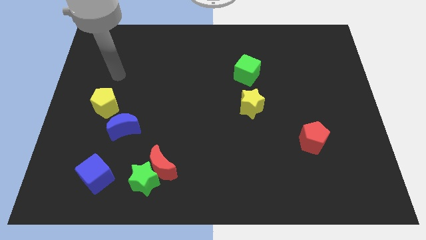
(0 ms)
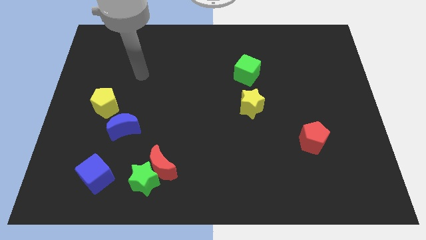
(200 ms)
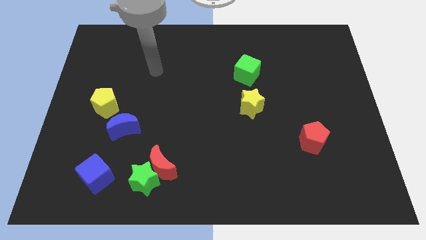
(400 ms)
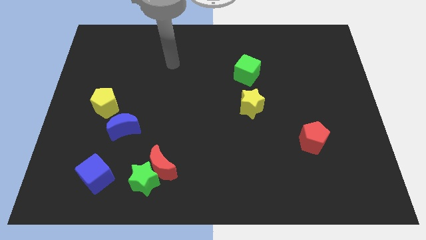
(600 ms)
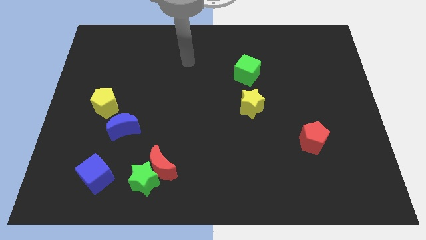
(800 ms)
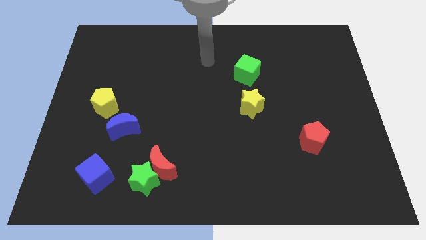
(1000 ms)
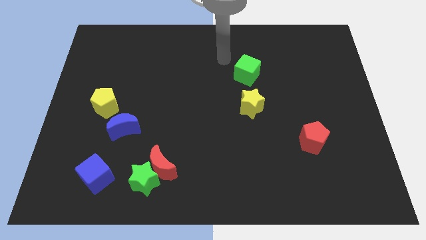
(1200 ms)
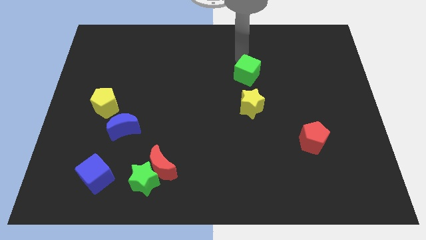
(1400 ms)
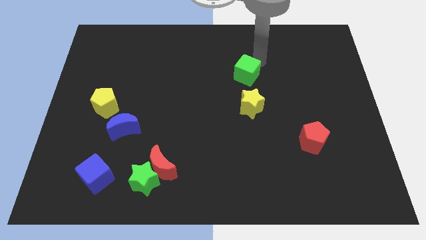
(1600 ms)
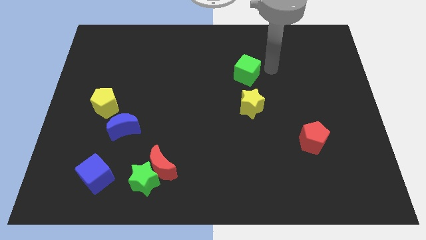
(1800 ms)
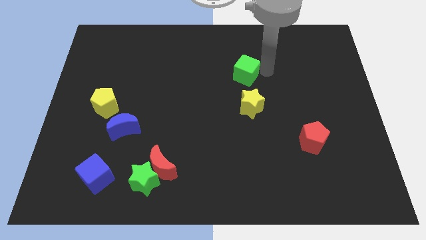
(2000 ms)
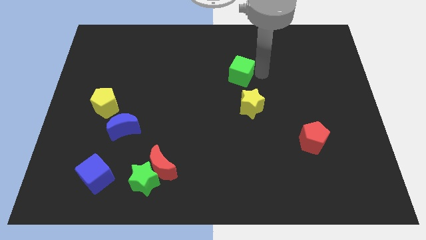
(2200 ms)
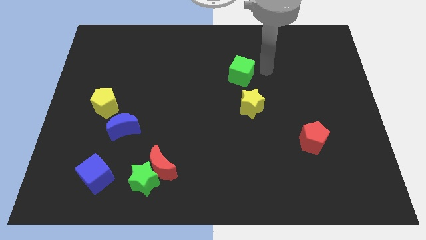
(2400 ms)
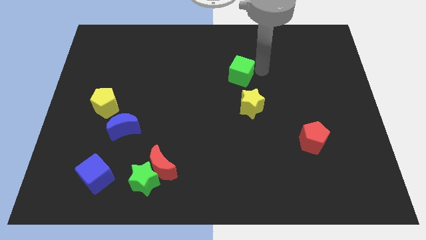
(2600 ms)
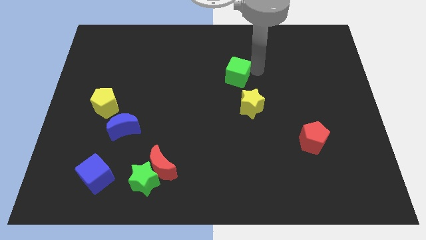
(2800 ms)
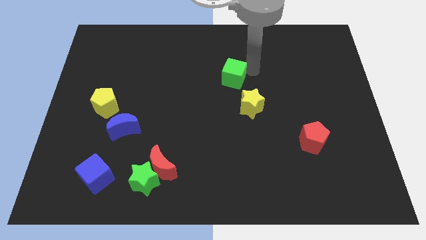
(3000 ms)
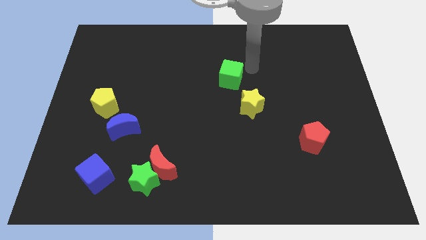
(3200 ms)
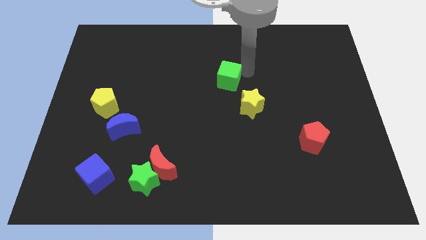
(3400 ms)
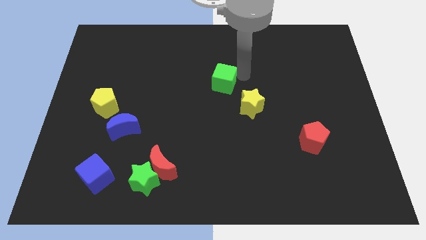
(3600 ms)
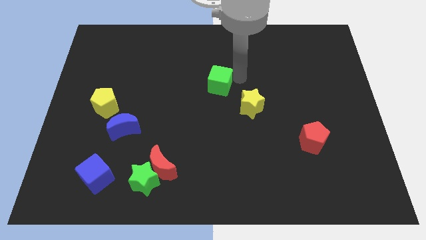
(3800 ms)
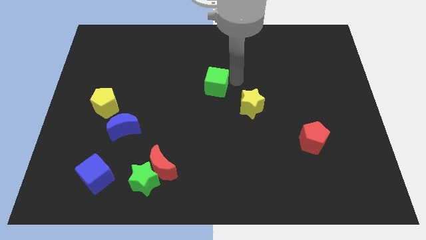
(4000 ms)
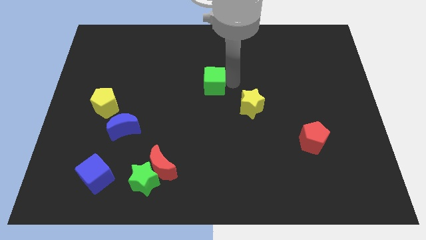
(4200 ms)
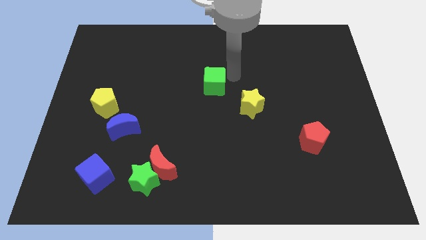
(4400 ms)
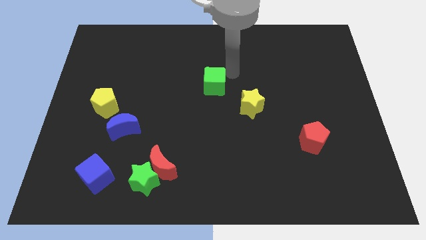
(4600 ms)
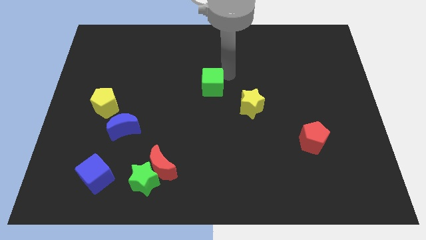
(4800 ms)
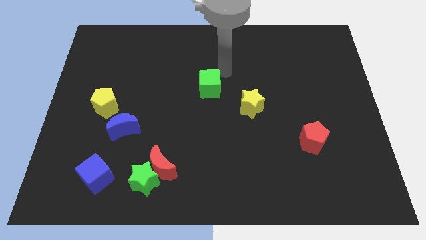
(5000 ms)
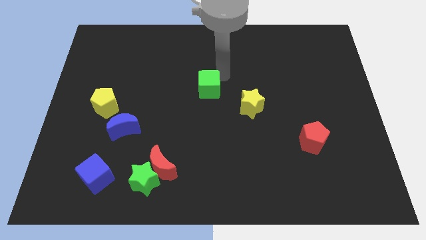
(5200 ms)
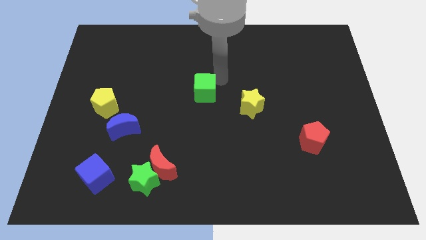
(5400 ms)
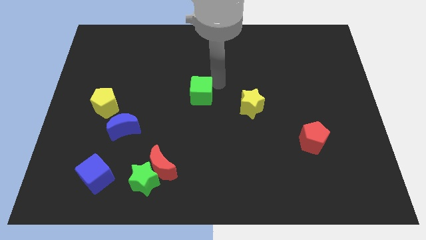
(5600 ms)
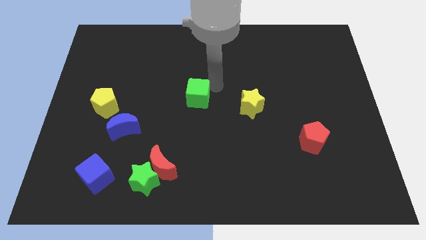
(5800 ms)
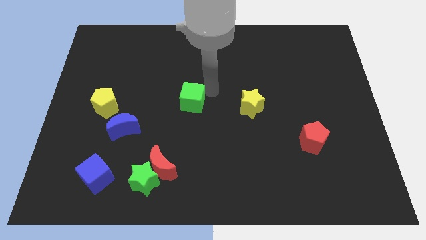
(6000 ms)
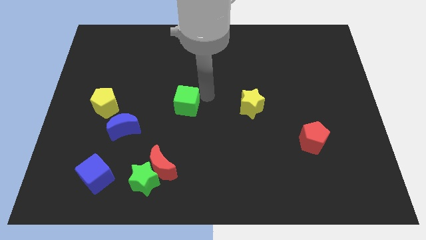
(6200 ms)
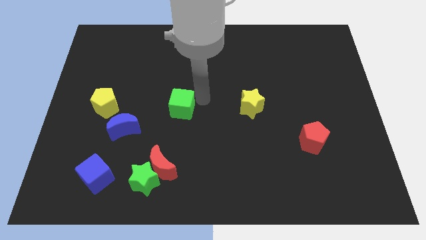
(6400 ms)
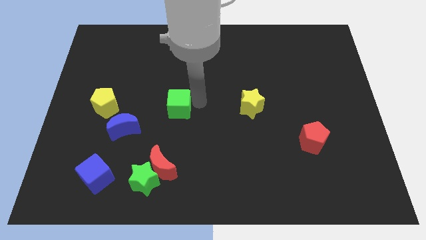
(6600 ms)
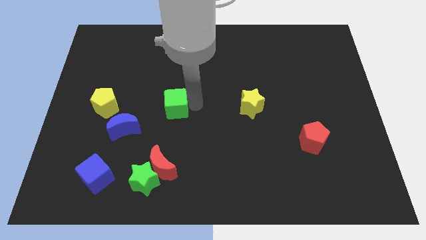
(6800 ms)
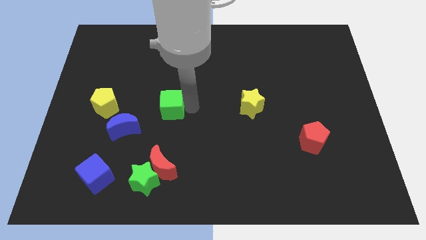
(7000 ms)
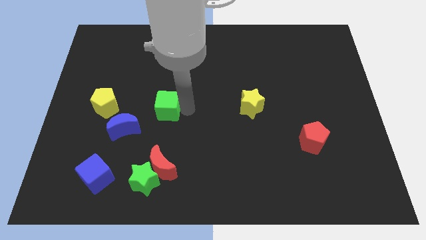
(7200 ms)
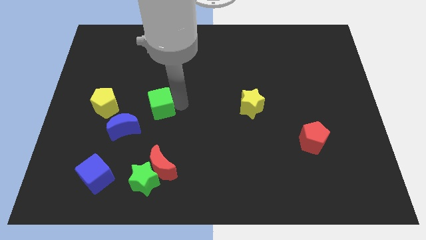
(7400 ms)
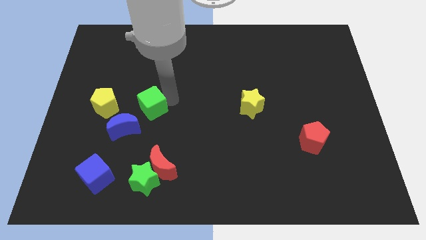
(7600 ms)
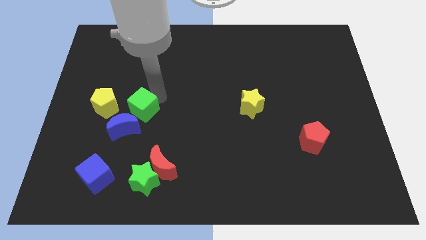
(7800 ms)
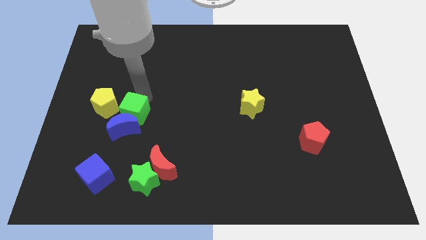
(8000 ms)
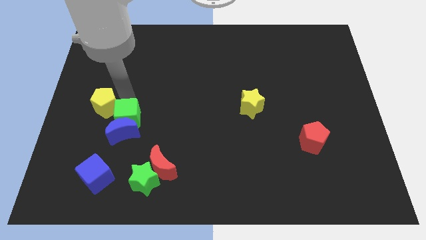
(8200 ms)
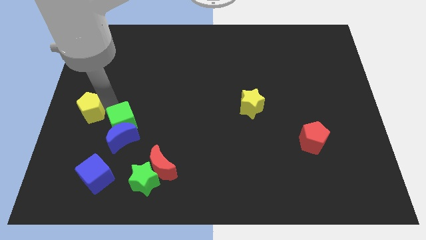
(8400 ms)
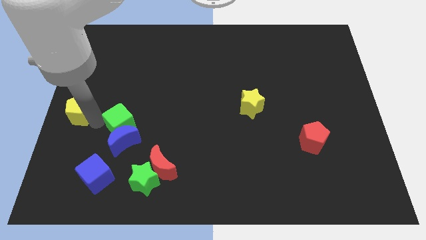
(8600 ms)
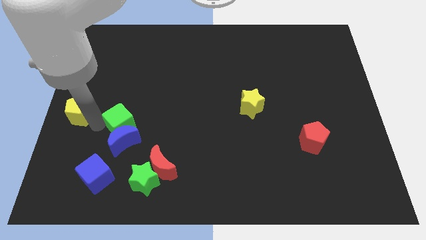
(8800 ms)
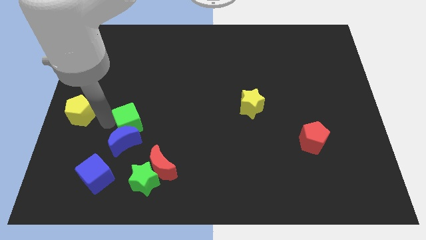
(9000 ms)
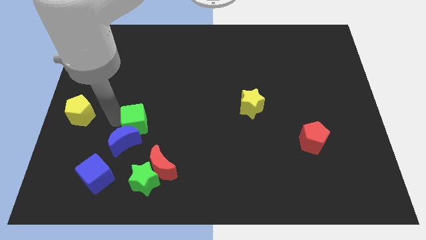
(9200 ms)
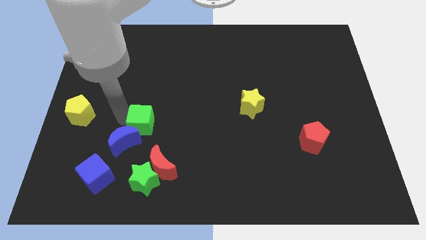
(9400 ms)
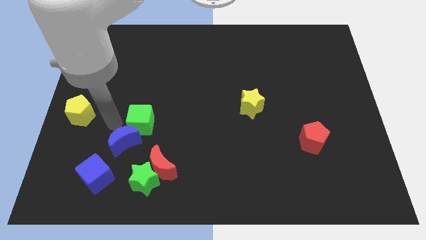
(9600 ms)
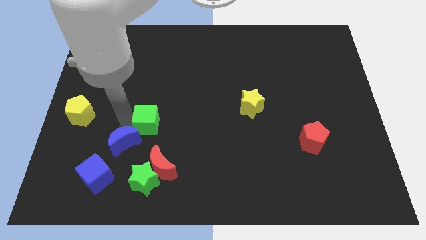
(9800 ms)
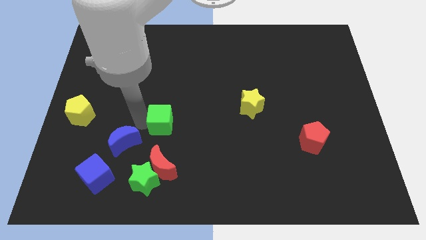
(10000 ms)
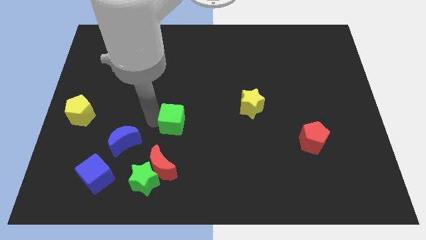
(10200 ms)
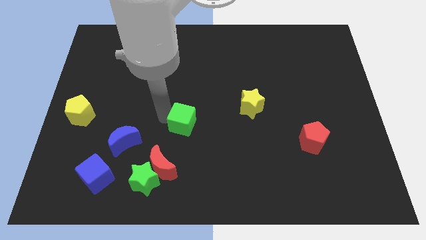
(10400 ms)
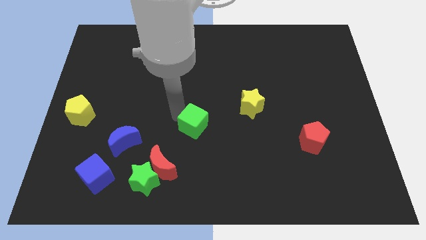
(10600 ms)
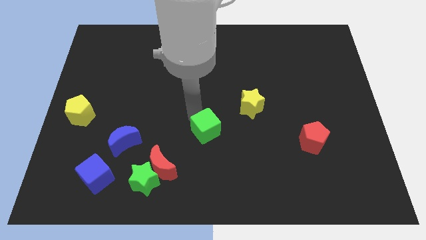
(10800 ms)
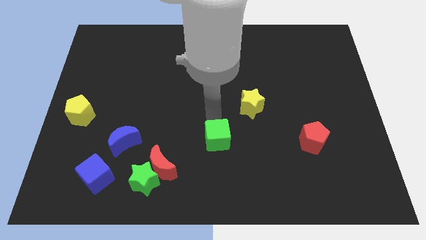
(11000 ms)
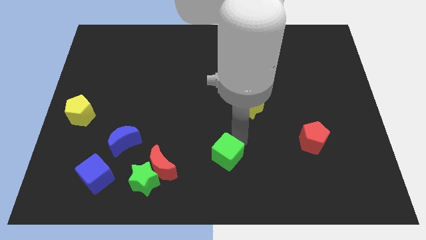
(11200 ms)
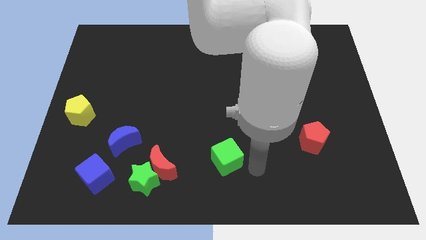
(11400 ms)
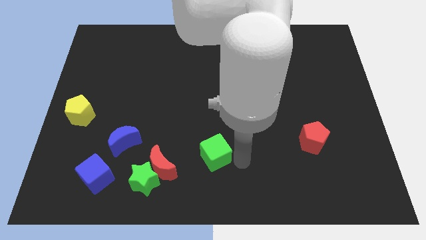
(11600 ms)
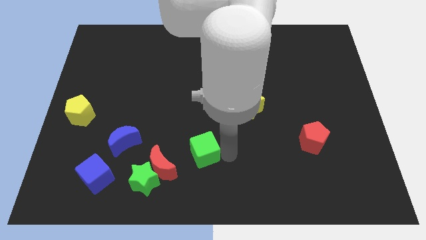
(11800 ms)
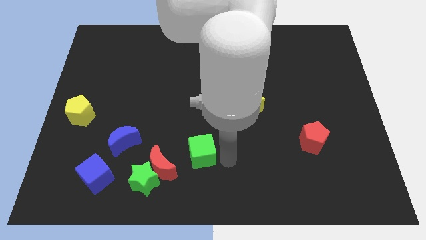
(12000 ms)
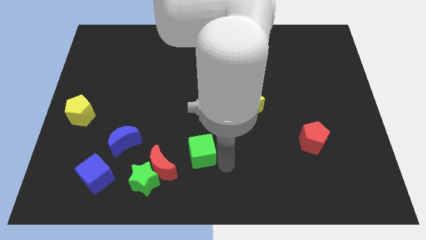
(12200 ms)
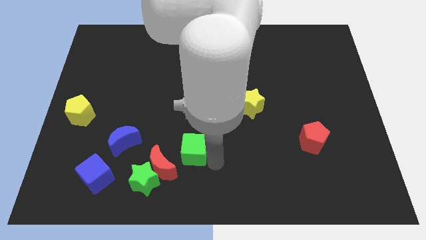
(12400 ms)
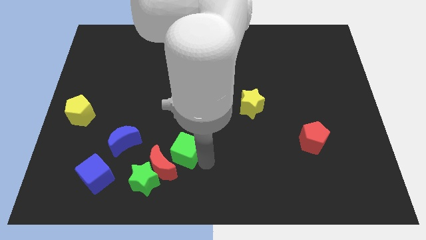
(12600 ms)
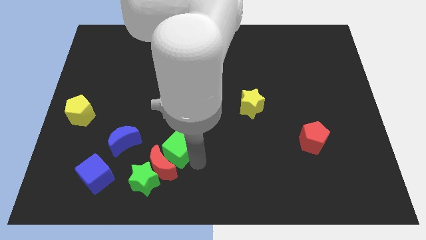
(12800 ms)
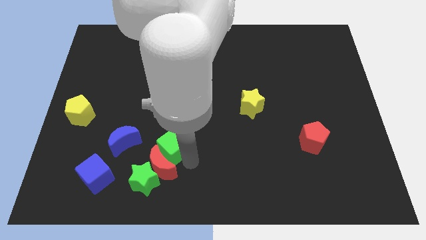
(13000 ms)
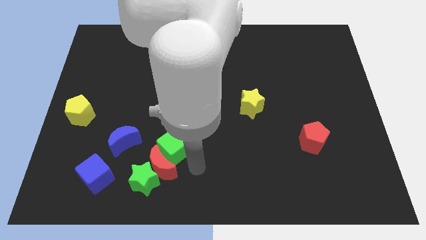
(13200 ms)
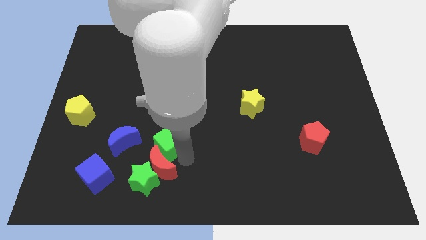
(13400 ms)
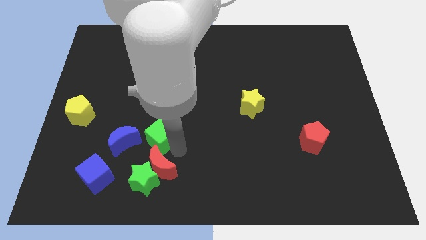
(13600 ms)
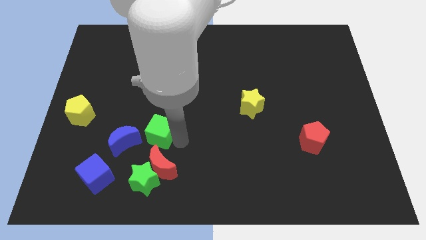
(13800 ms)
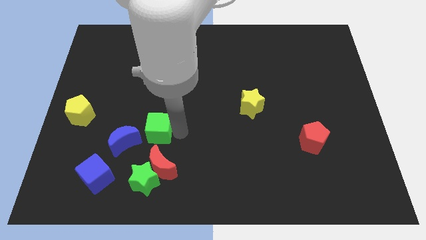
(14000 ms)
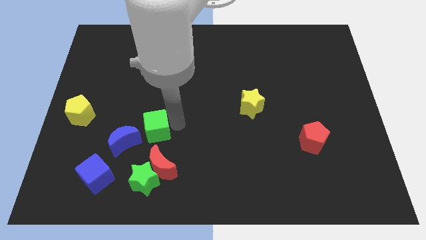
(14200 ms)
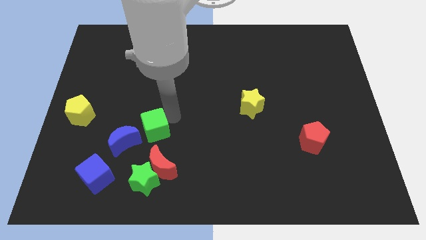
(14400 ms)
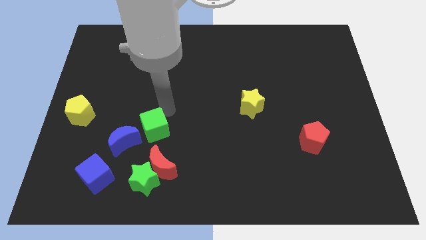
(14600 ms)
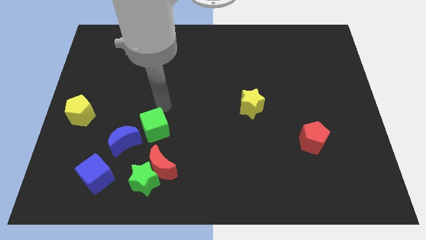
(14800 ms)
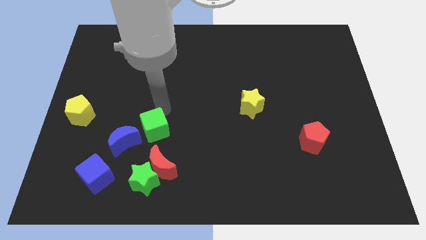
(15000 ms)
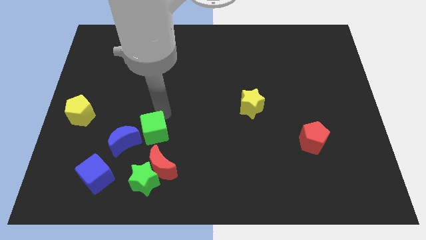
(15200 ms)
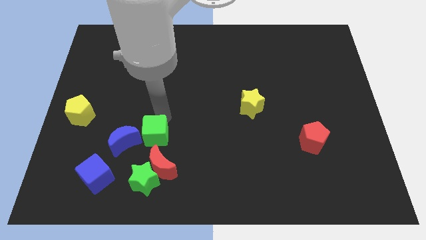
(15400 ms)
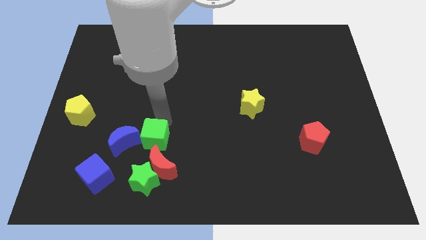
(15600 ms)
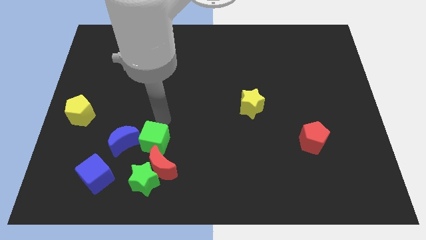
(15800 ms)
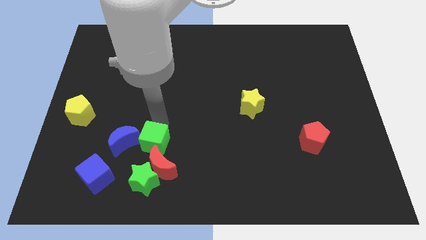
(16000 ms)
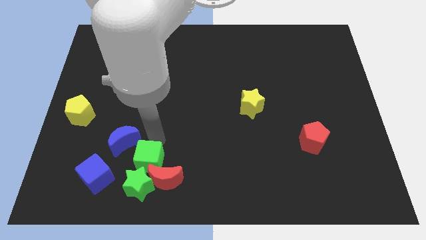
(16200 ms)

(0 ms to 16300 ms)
push the green cube towards the green star
